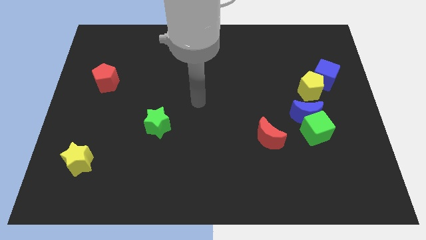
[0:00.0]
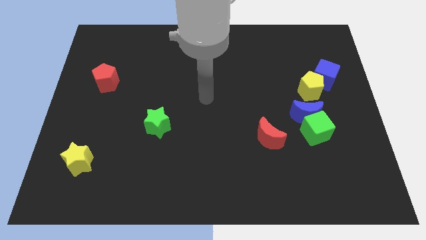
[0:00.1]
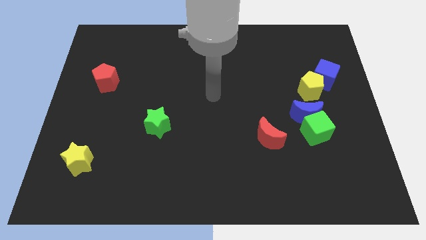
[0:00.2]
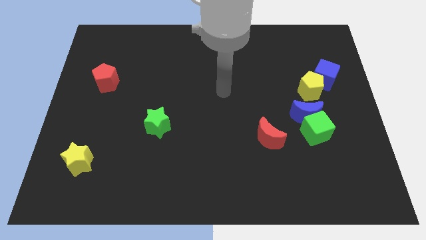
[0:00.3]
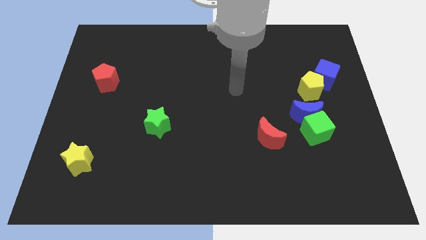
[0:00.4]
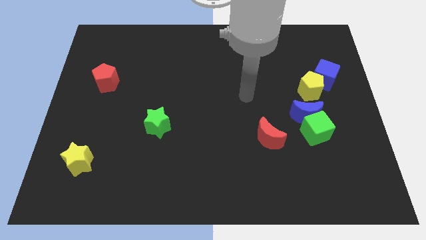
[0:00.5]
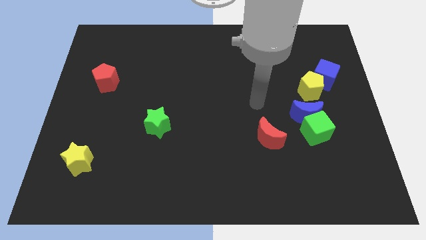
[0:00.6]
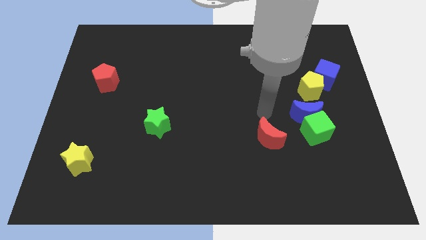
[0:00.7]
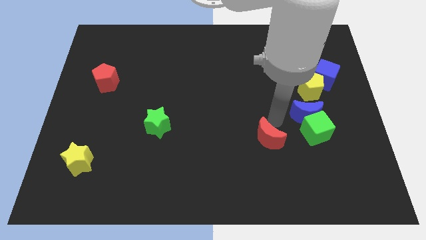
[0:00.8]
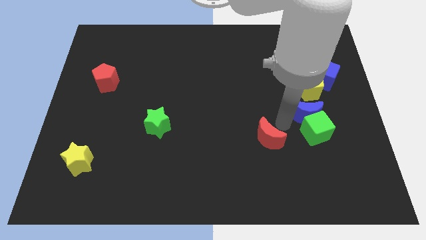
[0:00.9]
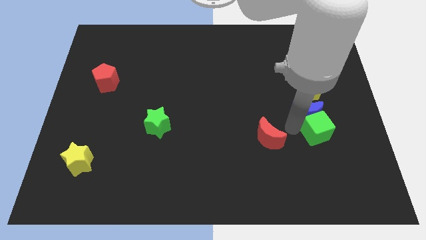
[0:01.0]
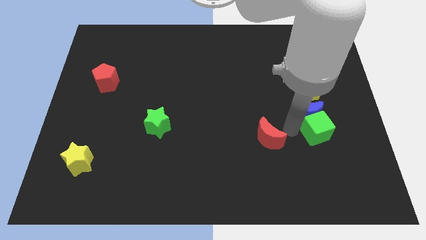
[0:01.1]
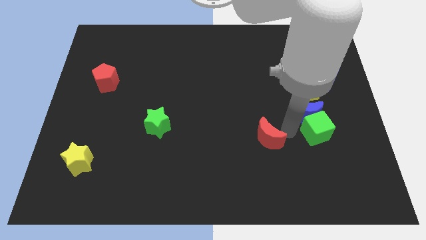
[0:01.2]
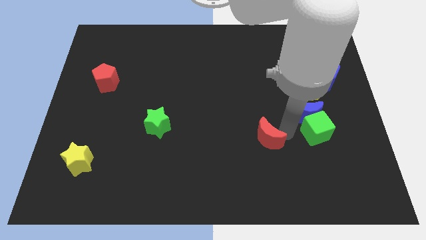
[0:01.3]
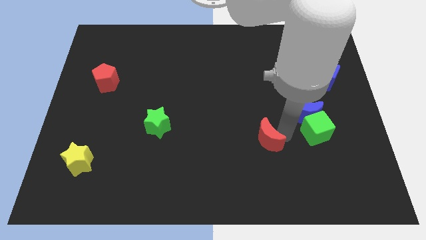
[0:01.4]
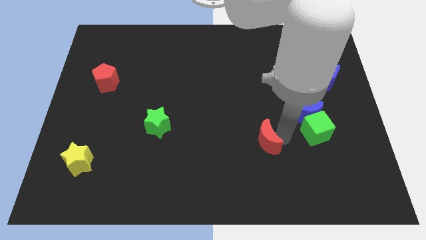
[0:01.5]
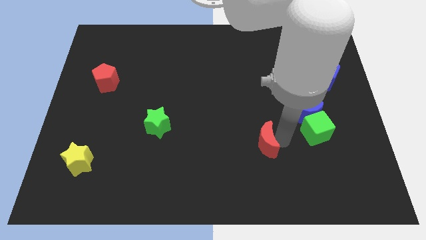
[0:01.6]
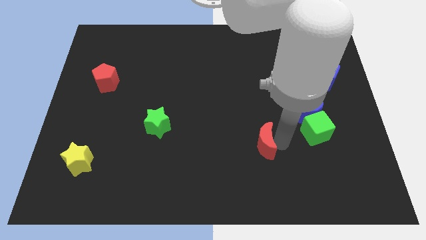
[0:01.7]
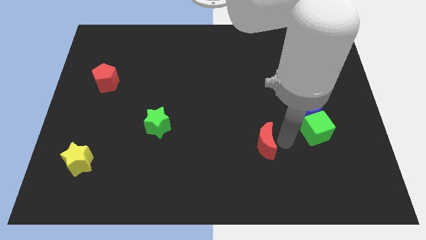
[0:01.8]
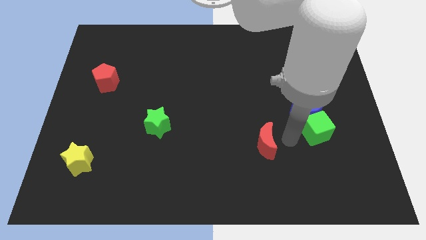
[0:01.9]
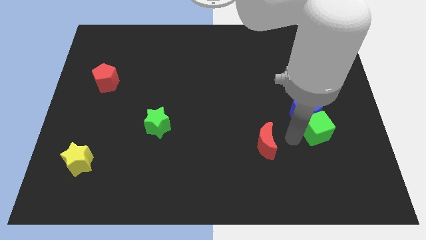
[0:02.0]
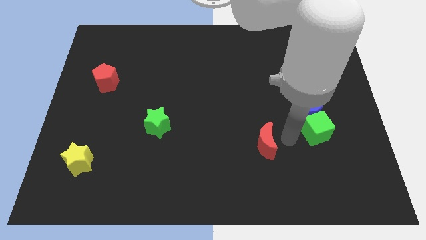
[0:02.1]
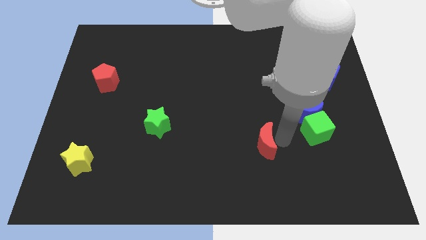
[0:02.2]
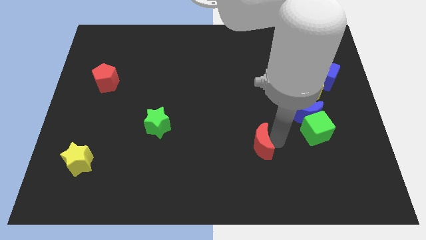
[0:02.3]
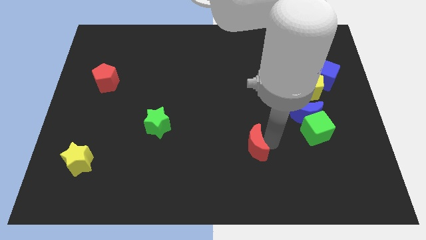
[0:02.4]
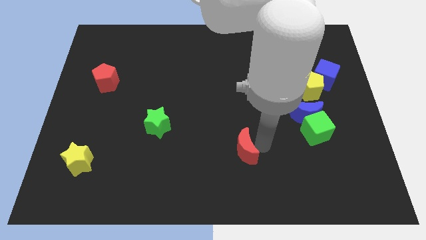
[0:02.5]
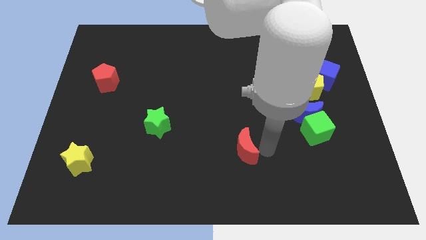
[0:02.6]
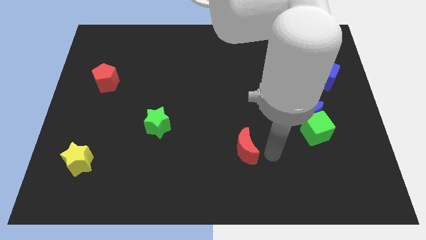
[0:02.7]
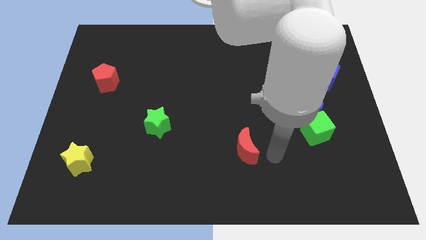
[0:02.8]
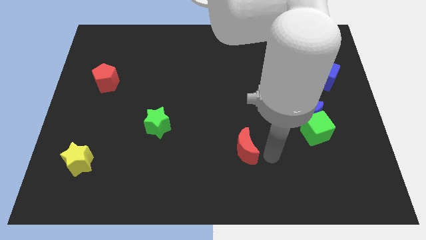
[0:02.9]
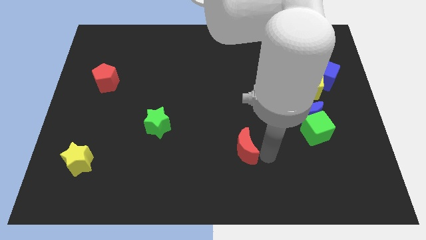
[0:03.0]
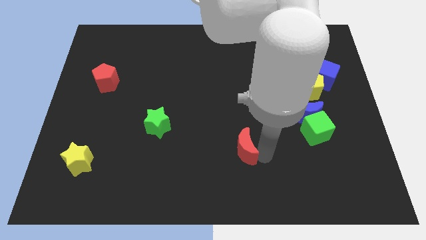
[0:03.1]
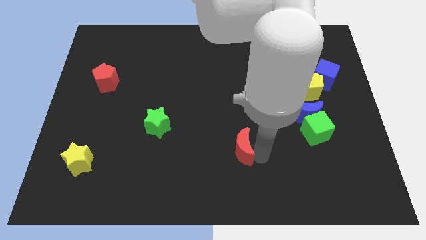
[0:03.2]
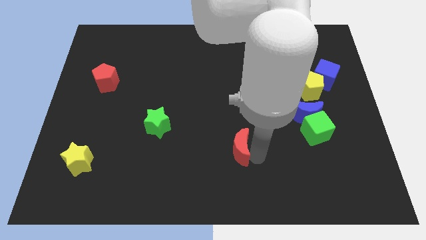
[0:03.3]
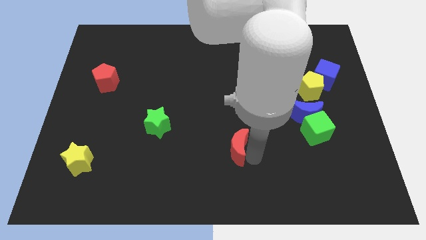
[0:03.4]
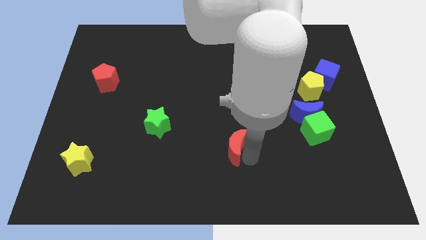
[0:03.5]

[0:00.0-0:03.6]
slightly move the red moon left

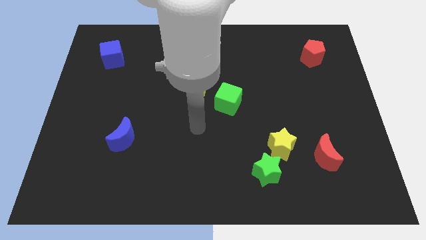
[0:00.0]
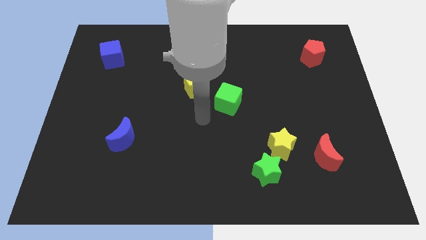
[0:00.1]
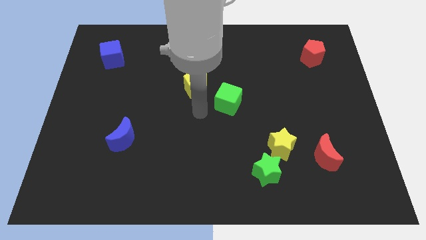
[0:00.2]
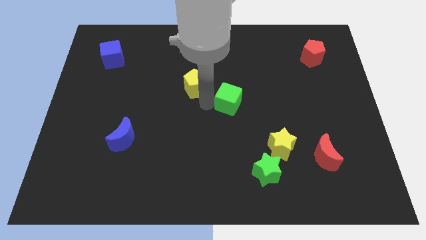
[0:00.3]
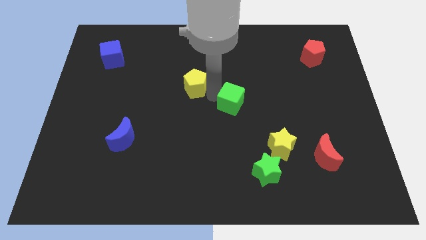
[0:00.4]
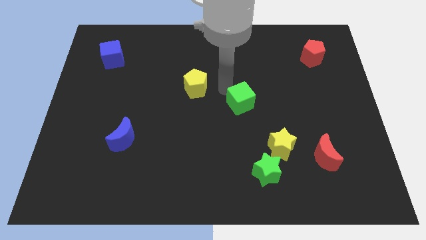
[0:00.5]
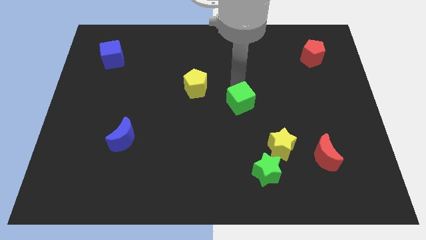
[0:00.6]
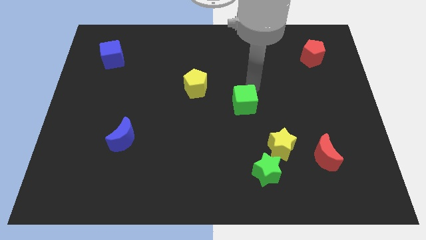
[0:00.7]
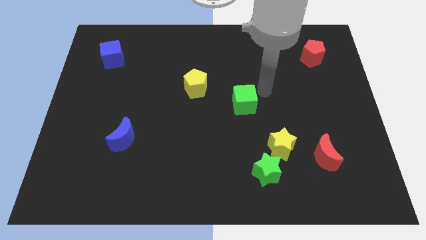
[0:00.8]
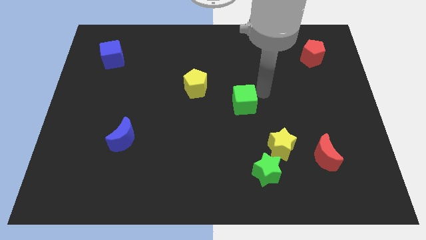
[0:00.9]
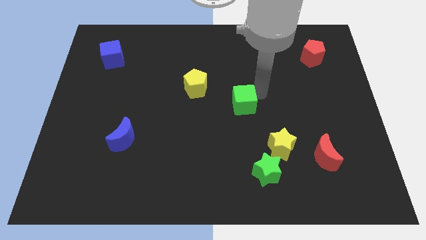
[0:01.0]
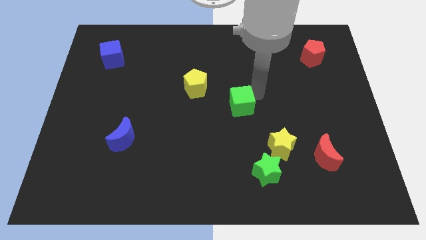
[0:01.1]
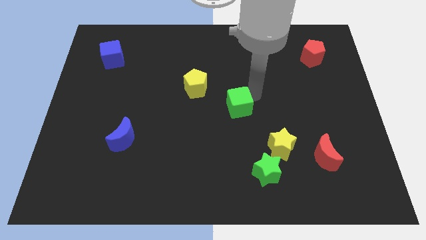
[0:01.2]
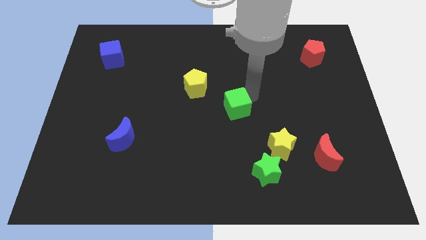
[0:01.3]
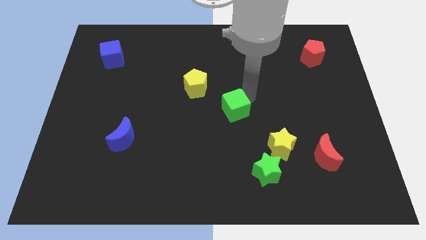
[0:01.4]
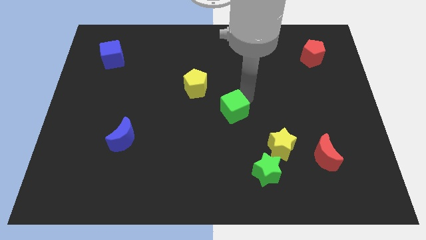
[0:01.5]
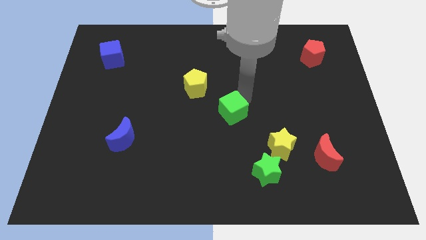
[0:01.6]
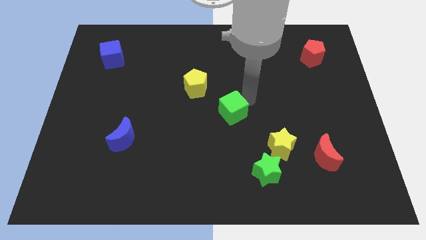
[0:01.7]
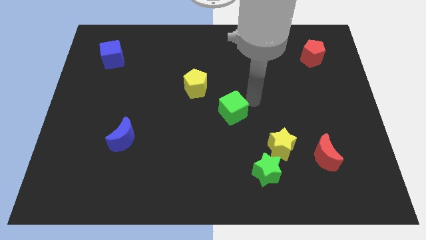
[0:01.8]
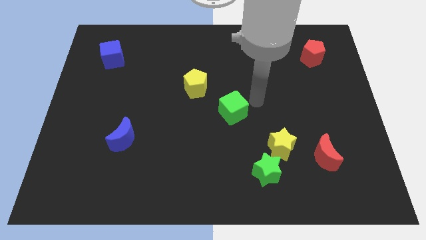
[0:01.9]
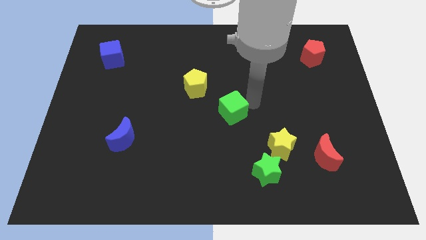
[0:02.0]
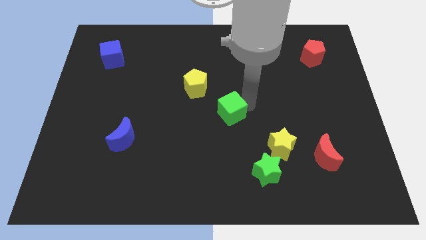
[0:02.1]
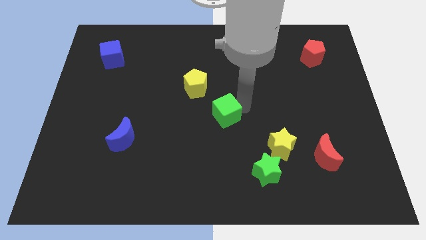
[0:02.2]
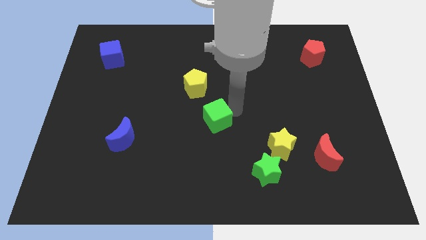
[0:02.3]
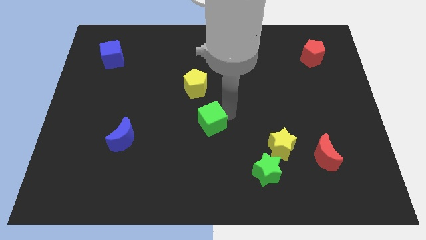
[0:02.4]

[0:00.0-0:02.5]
slide the green cube a little diagonally downwards and left

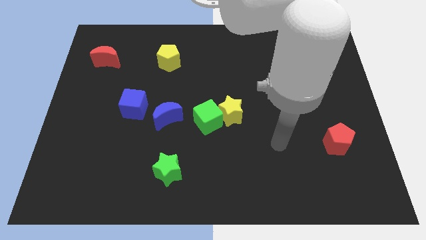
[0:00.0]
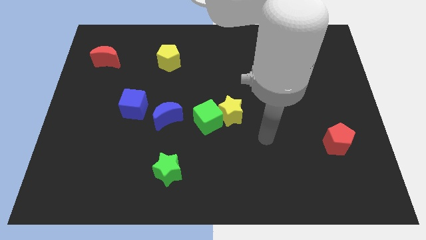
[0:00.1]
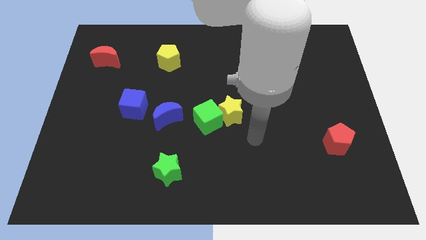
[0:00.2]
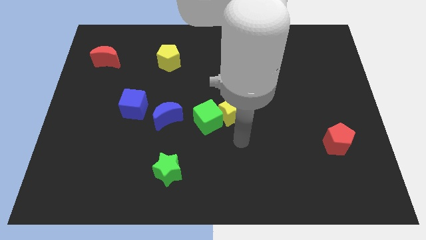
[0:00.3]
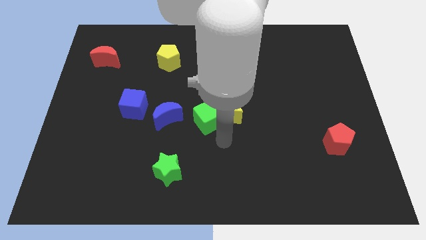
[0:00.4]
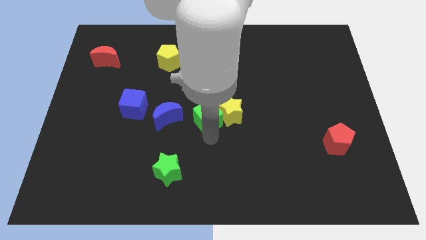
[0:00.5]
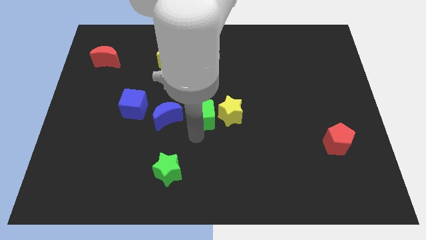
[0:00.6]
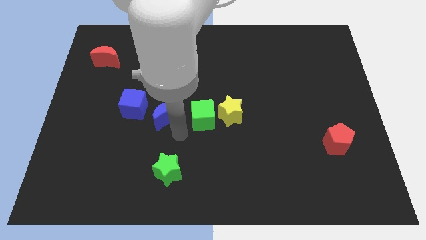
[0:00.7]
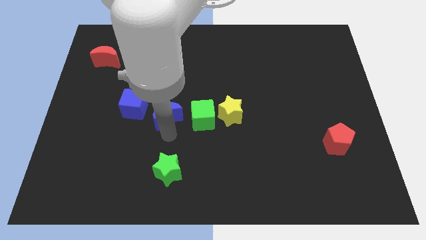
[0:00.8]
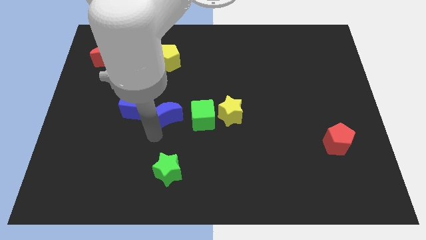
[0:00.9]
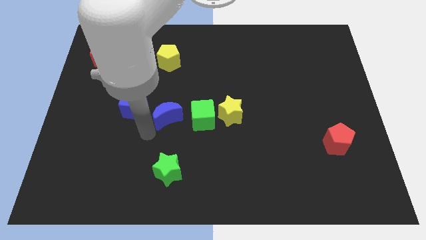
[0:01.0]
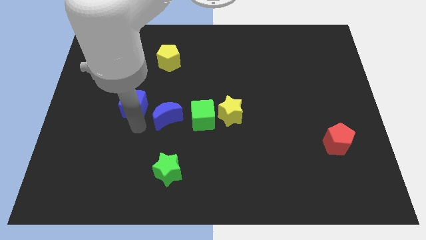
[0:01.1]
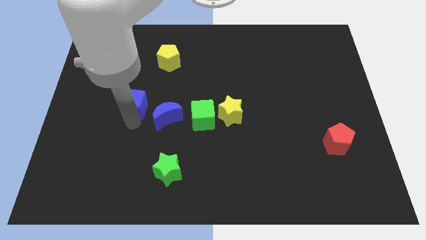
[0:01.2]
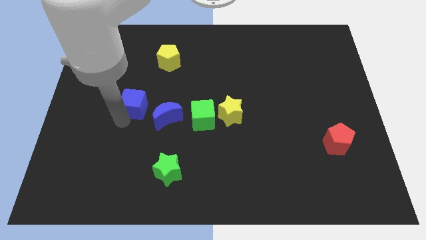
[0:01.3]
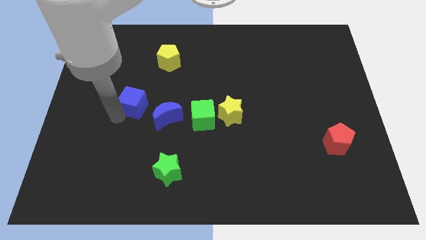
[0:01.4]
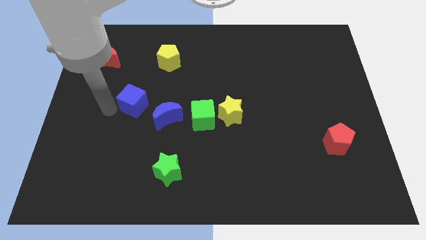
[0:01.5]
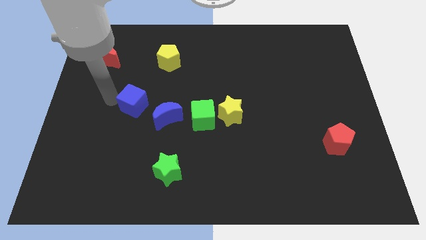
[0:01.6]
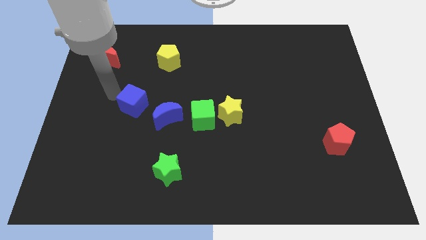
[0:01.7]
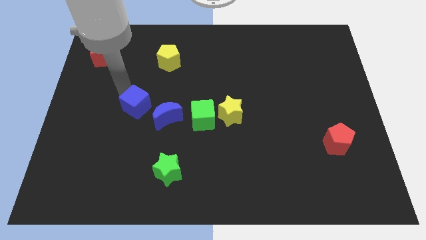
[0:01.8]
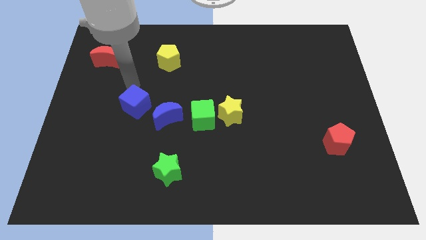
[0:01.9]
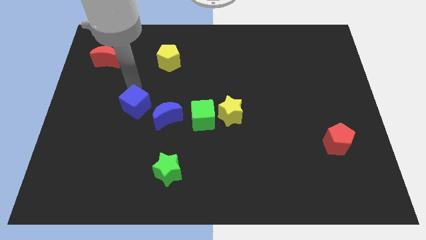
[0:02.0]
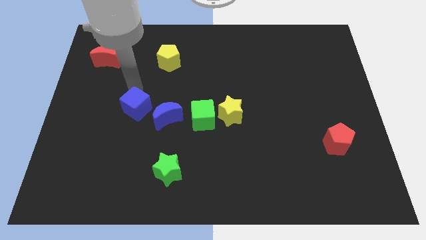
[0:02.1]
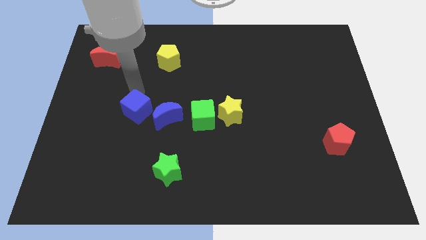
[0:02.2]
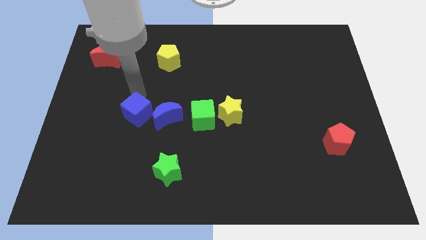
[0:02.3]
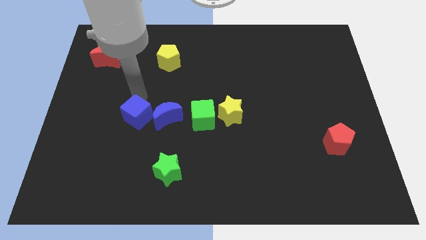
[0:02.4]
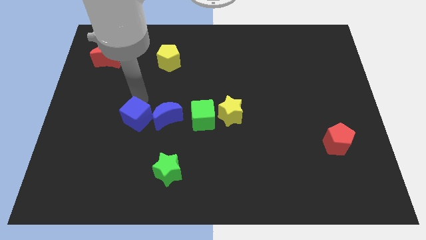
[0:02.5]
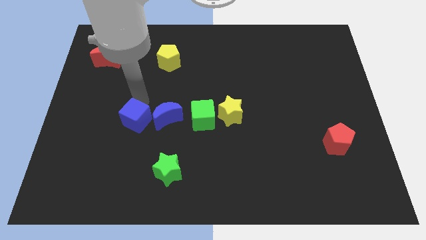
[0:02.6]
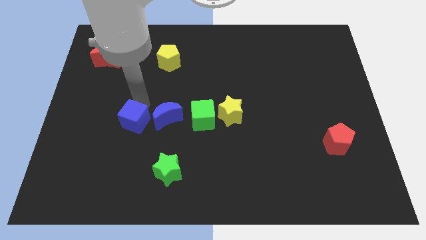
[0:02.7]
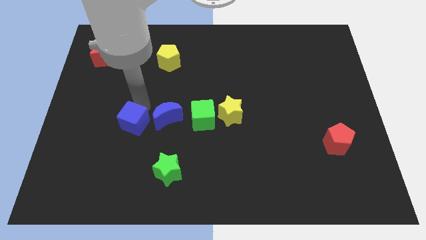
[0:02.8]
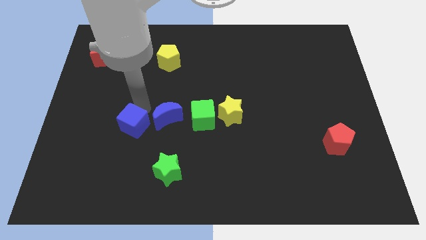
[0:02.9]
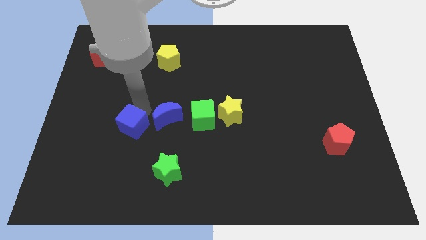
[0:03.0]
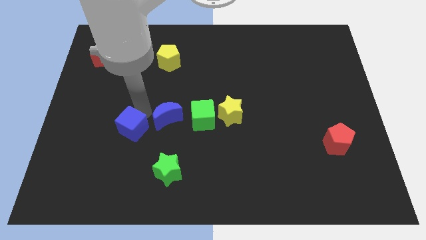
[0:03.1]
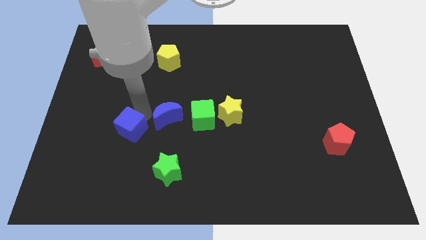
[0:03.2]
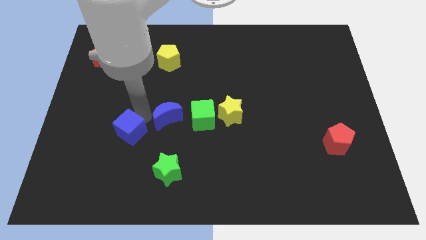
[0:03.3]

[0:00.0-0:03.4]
slightly move the blue cube down
